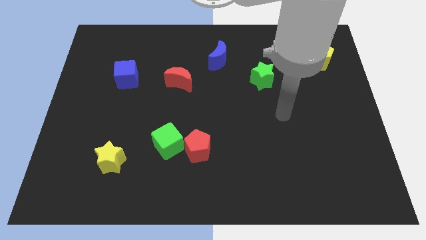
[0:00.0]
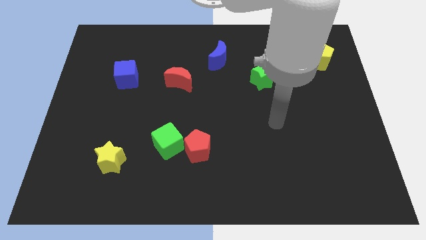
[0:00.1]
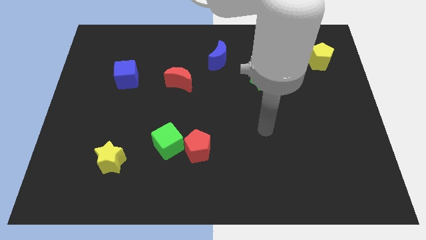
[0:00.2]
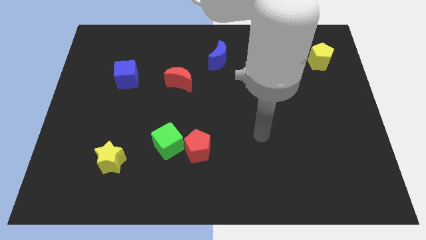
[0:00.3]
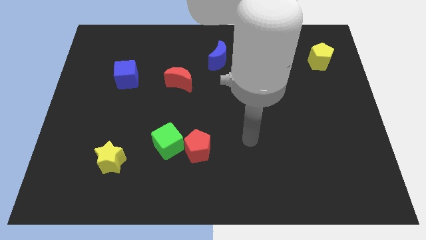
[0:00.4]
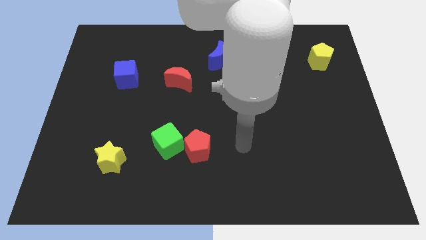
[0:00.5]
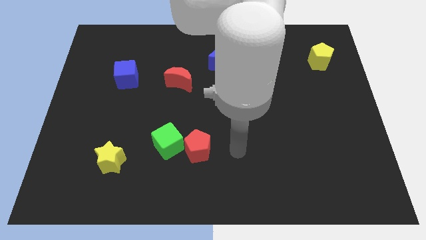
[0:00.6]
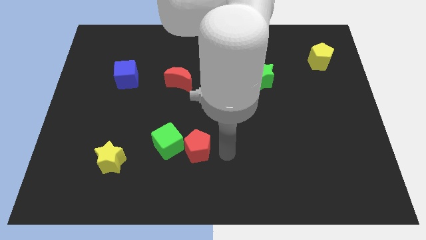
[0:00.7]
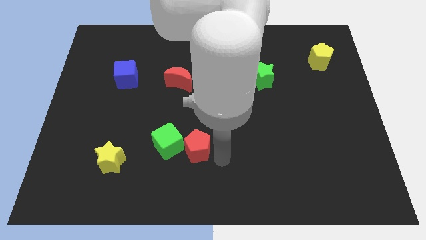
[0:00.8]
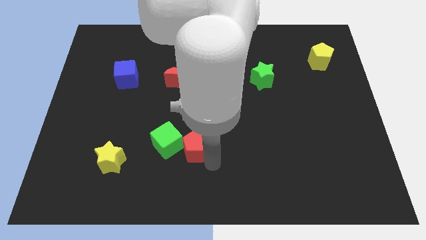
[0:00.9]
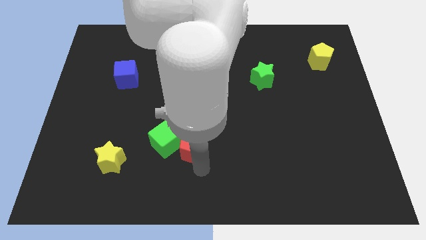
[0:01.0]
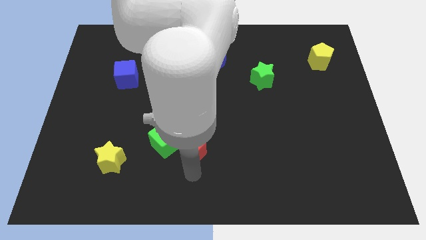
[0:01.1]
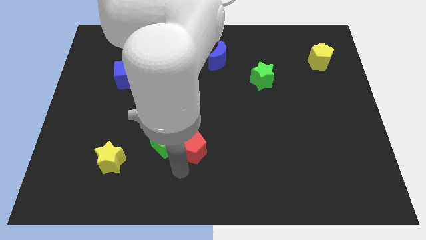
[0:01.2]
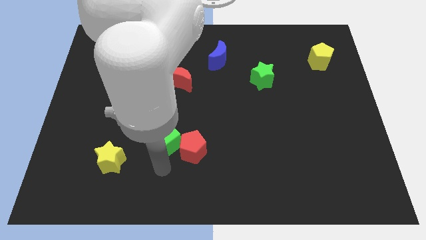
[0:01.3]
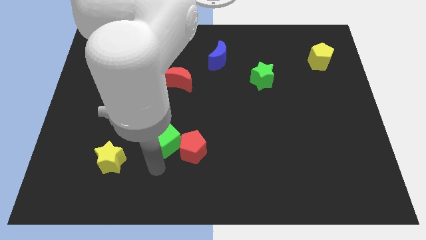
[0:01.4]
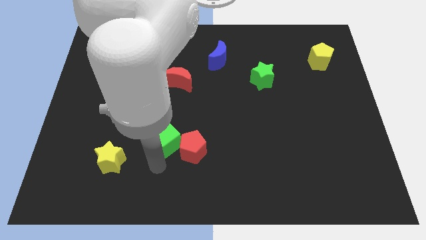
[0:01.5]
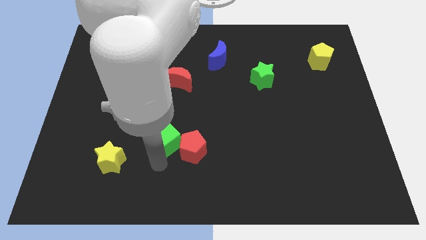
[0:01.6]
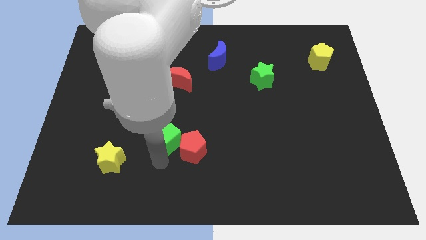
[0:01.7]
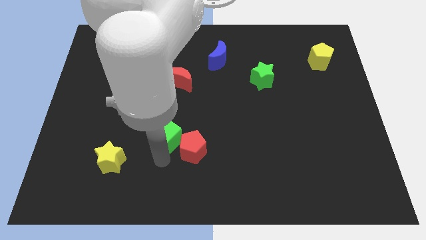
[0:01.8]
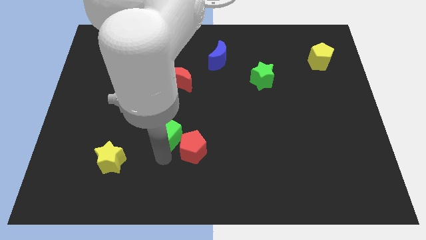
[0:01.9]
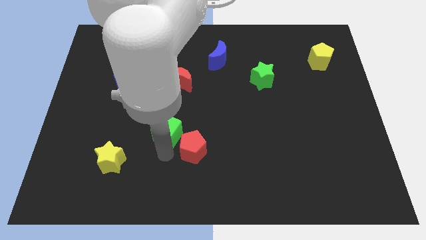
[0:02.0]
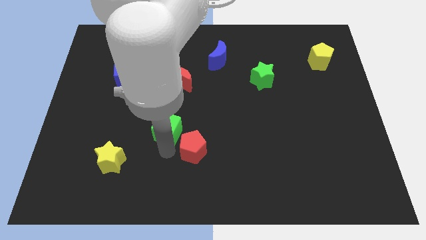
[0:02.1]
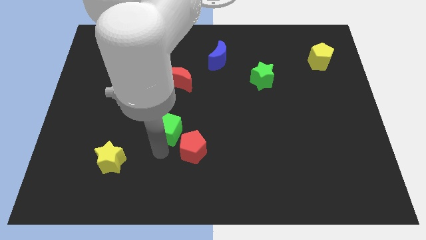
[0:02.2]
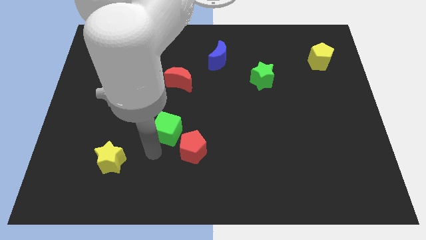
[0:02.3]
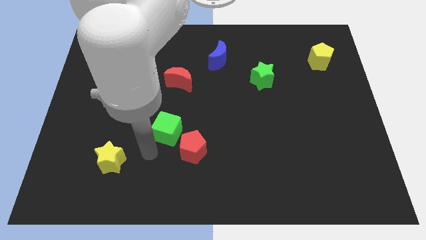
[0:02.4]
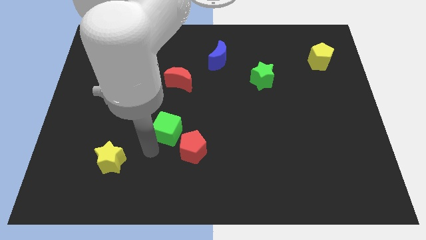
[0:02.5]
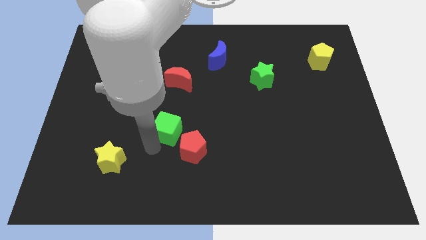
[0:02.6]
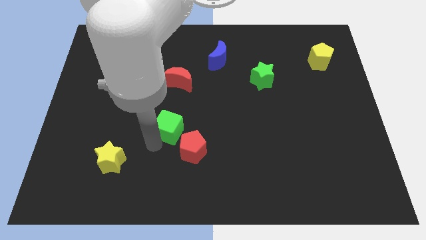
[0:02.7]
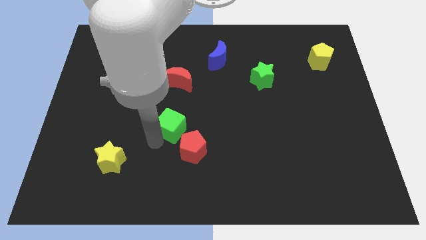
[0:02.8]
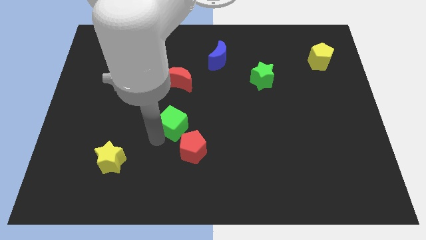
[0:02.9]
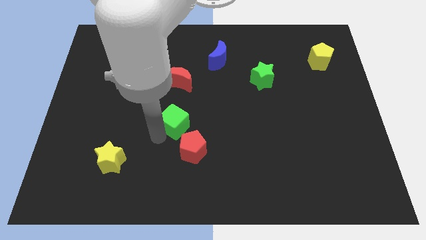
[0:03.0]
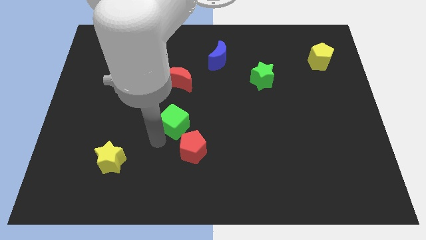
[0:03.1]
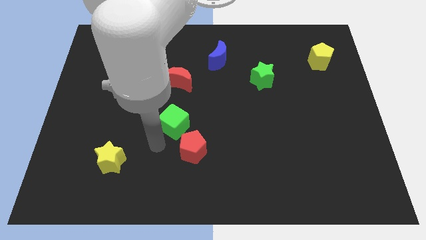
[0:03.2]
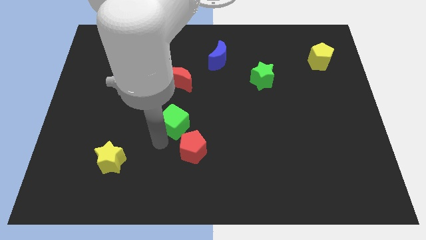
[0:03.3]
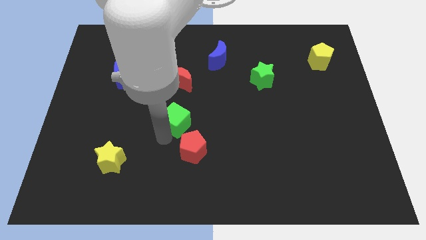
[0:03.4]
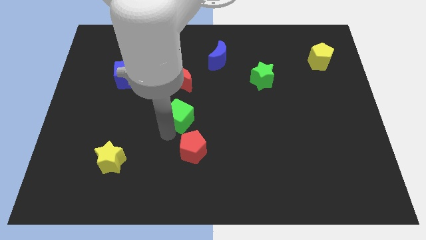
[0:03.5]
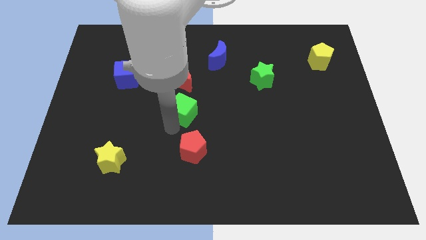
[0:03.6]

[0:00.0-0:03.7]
move the green cube diagonally upwards and right a bit

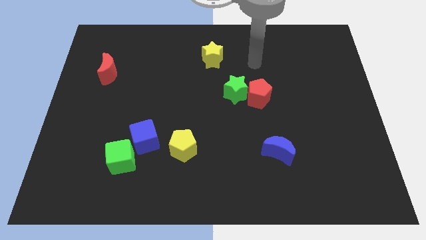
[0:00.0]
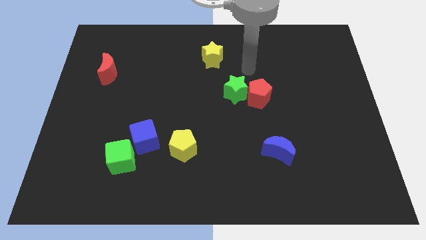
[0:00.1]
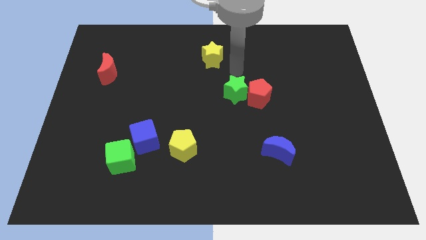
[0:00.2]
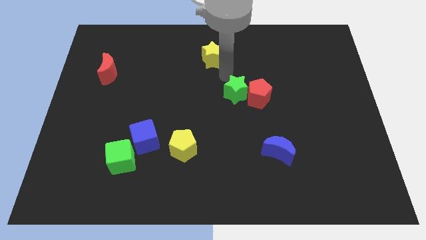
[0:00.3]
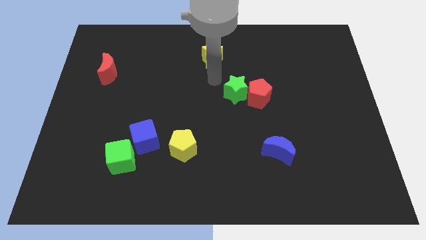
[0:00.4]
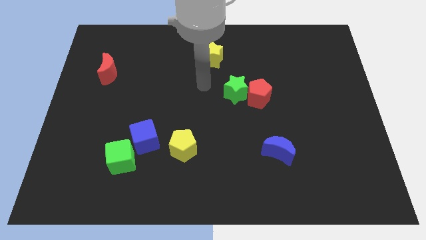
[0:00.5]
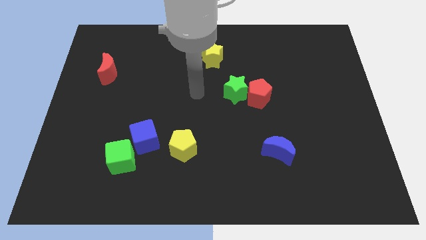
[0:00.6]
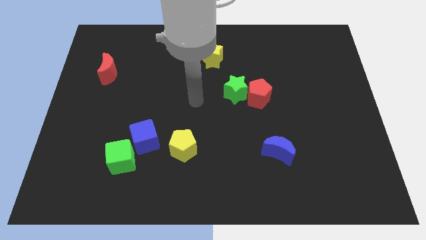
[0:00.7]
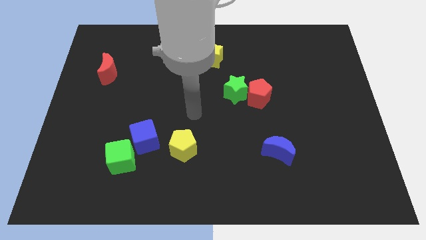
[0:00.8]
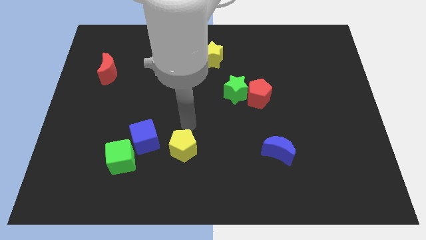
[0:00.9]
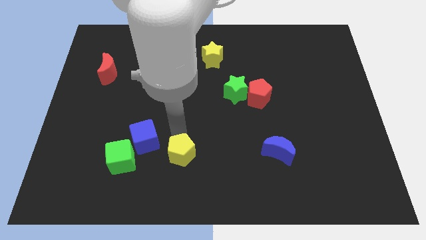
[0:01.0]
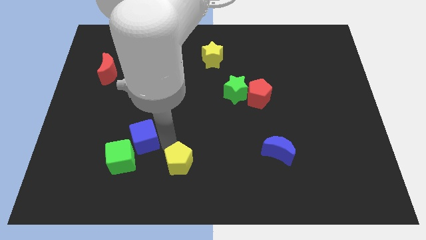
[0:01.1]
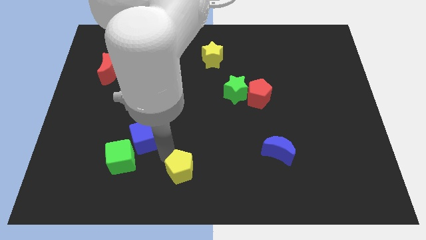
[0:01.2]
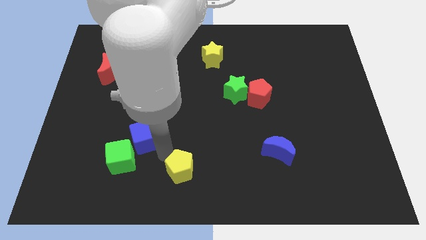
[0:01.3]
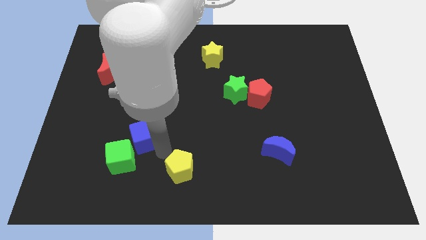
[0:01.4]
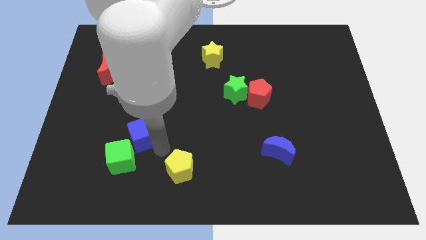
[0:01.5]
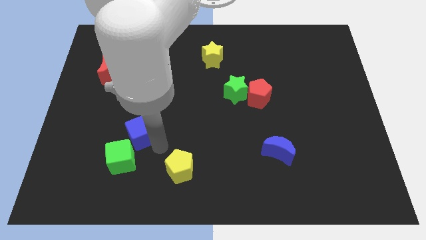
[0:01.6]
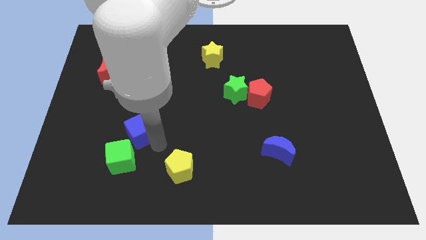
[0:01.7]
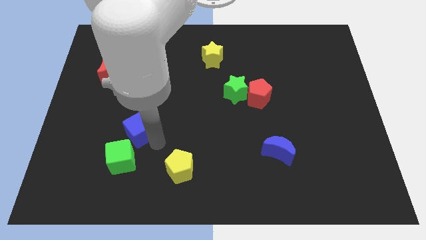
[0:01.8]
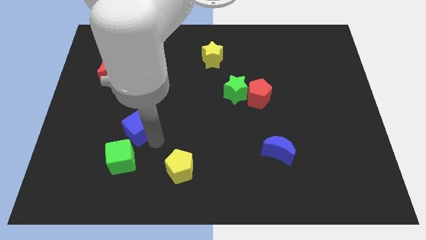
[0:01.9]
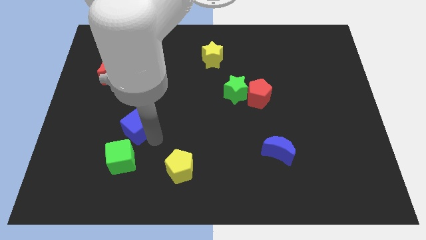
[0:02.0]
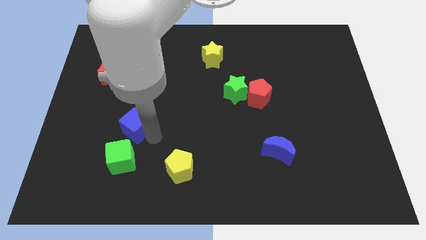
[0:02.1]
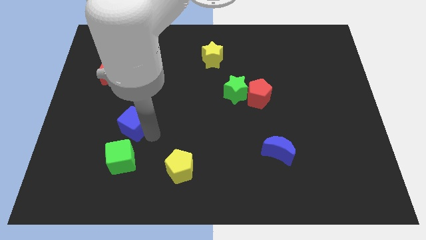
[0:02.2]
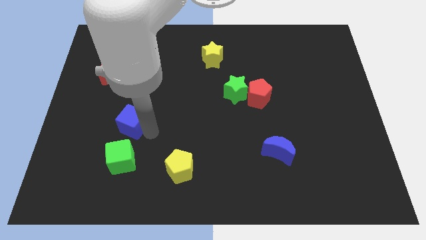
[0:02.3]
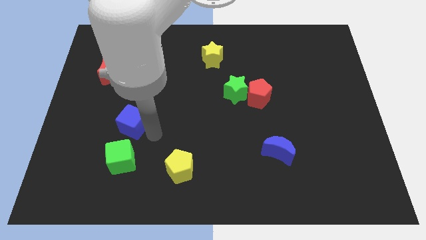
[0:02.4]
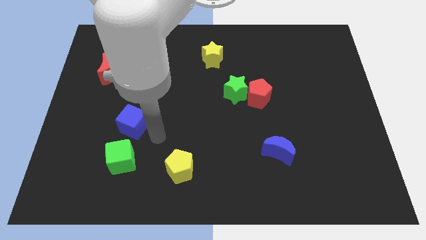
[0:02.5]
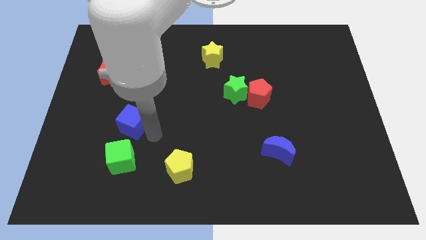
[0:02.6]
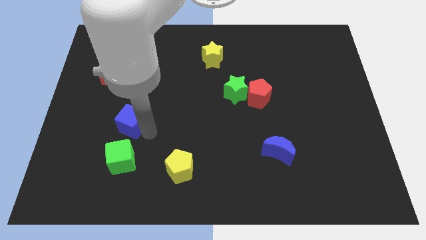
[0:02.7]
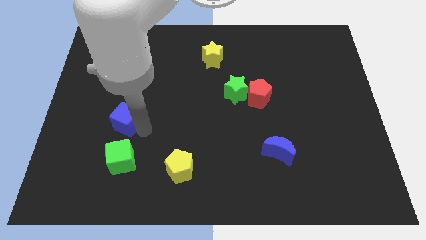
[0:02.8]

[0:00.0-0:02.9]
slightly push the blue cube upwards and to the left diagonally

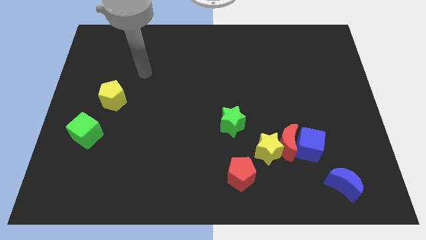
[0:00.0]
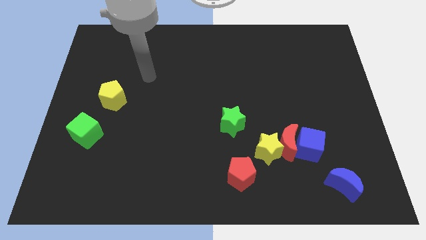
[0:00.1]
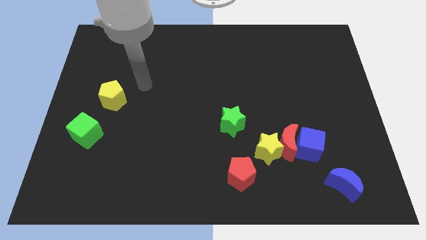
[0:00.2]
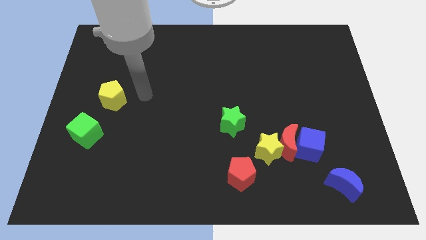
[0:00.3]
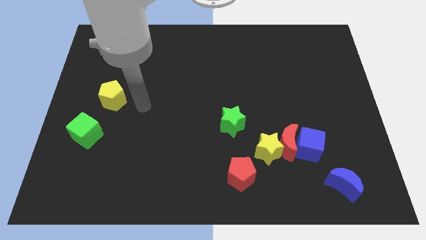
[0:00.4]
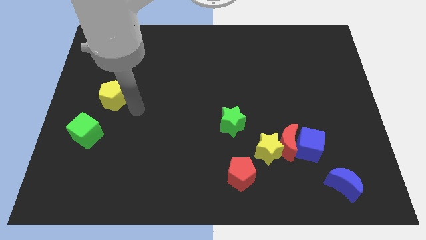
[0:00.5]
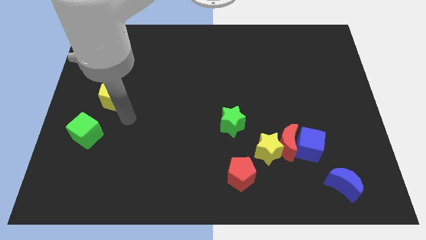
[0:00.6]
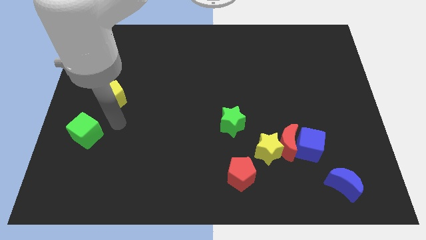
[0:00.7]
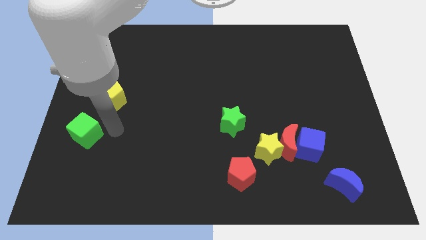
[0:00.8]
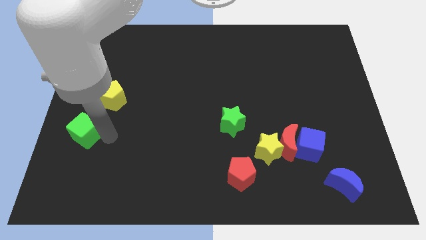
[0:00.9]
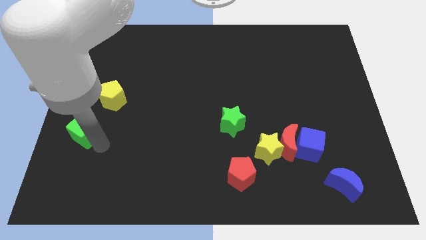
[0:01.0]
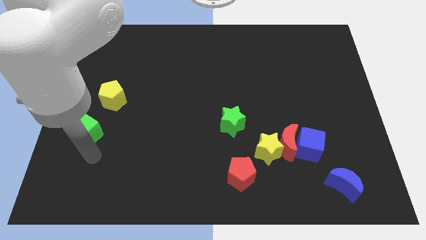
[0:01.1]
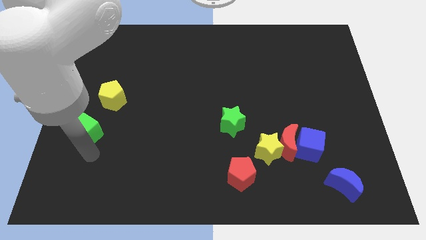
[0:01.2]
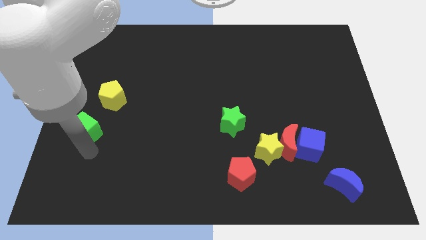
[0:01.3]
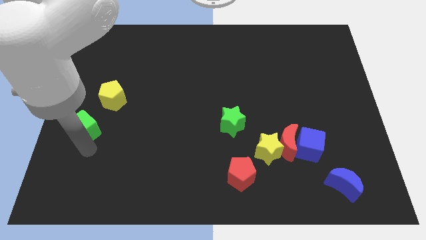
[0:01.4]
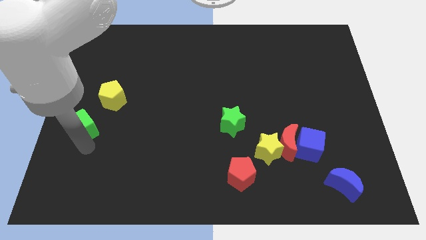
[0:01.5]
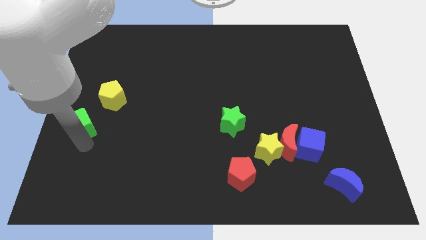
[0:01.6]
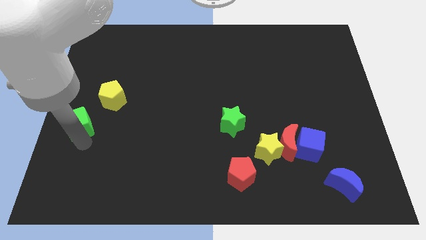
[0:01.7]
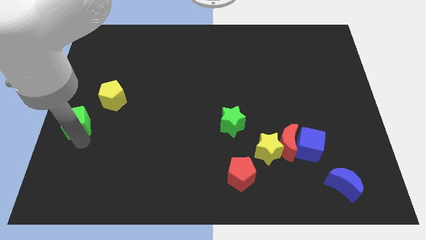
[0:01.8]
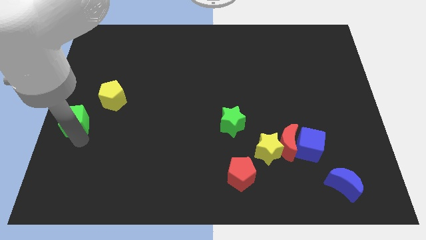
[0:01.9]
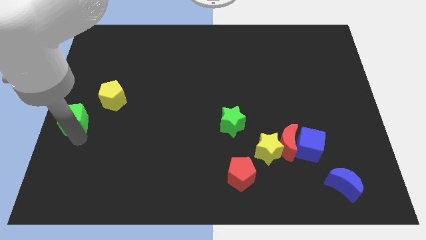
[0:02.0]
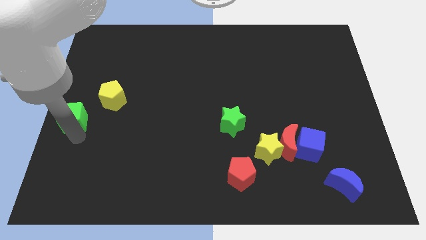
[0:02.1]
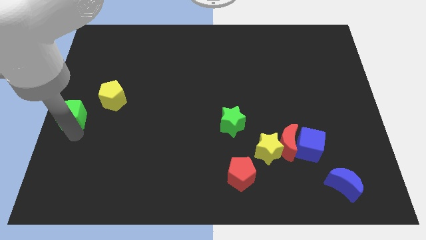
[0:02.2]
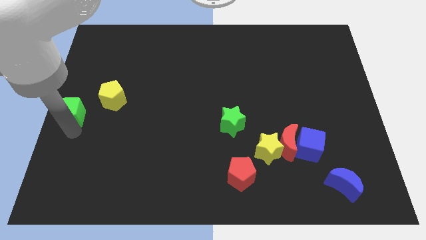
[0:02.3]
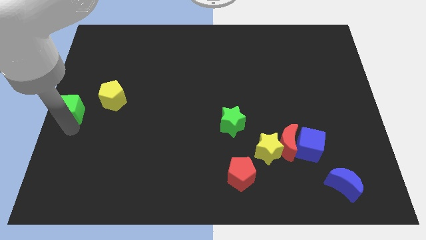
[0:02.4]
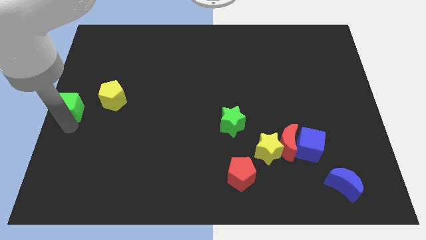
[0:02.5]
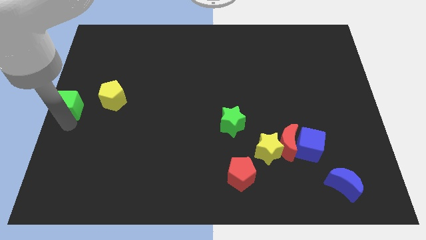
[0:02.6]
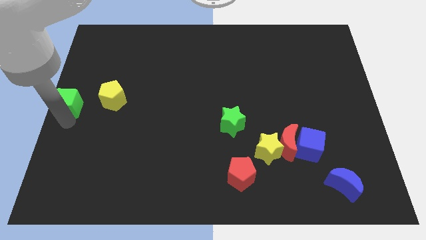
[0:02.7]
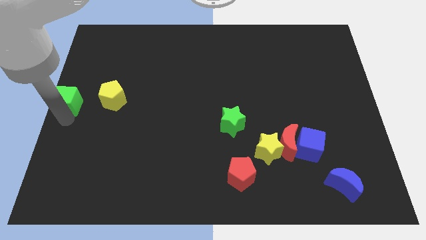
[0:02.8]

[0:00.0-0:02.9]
slightly push the green cube upwards
